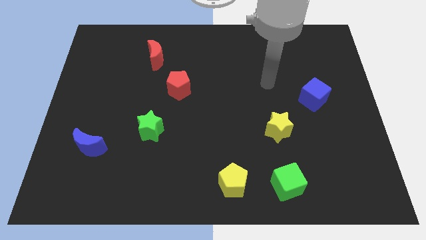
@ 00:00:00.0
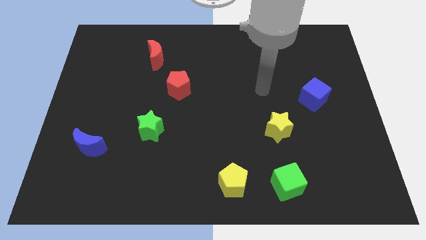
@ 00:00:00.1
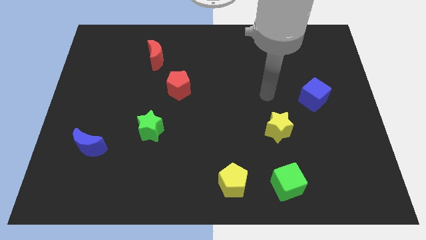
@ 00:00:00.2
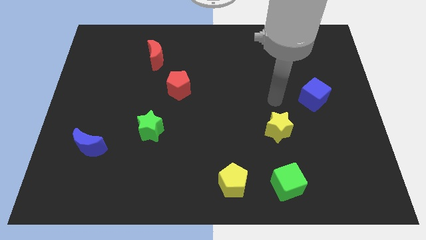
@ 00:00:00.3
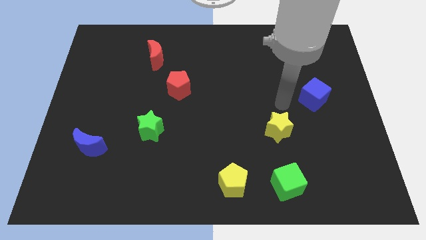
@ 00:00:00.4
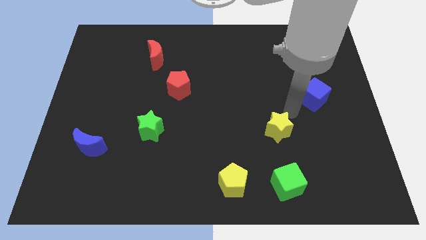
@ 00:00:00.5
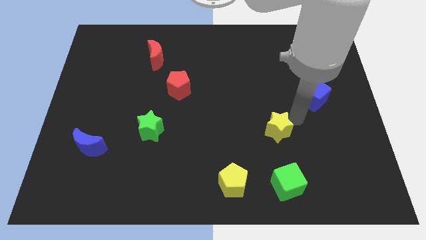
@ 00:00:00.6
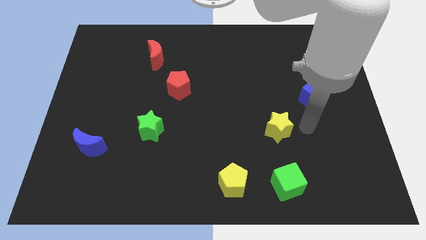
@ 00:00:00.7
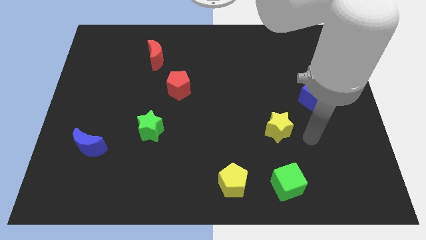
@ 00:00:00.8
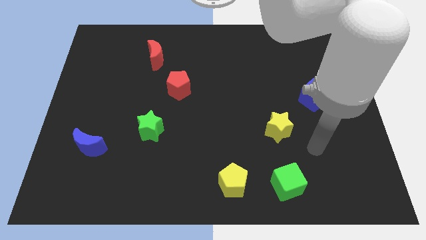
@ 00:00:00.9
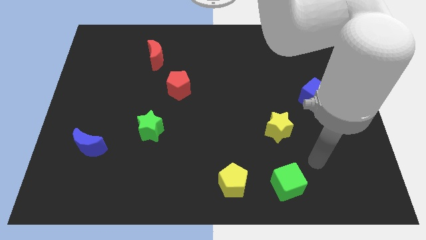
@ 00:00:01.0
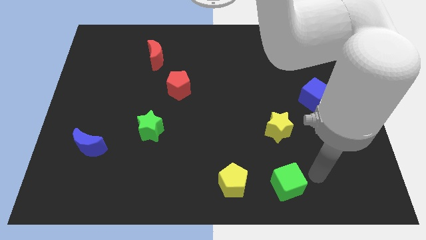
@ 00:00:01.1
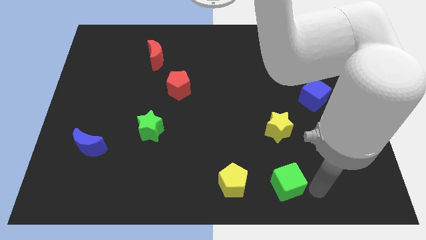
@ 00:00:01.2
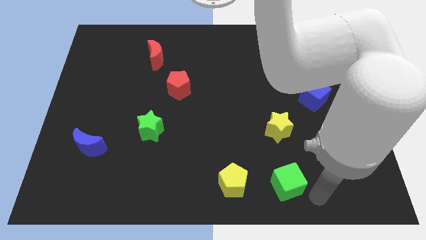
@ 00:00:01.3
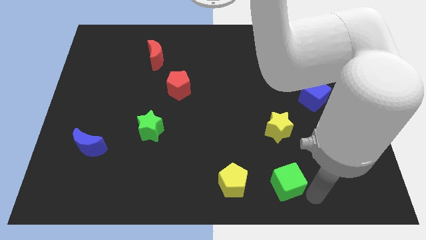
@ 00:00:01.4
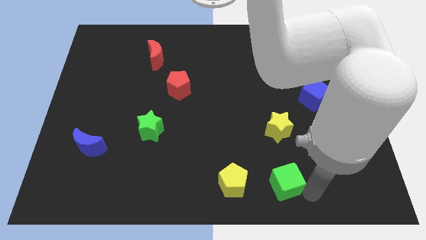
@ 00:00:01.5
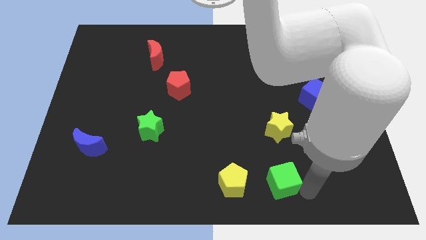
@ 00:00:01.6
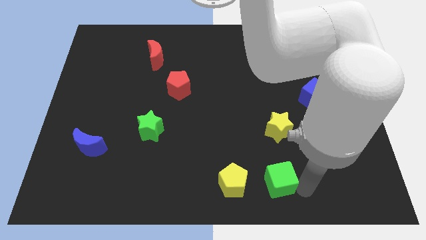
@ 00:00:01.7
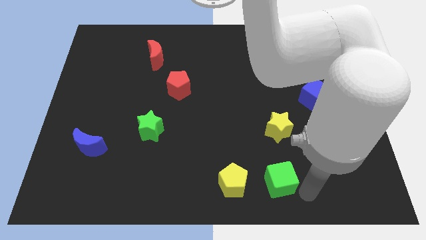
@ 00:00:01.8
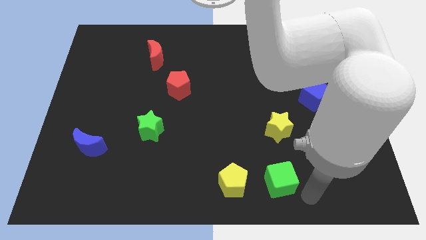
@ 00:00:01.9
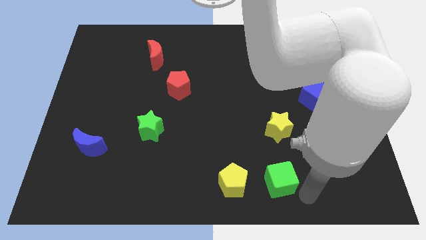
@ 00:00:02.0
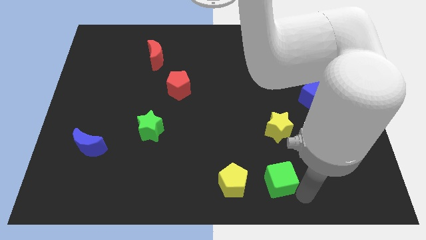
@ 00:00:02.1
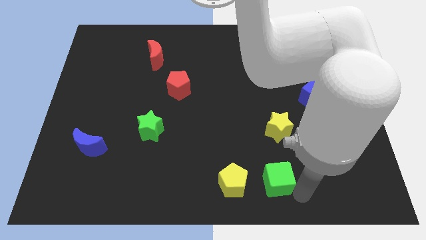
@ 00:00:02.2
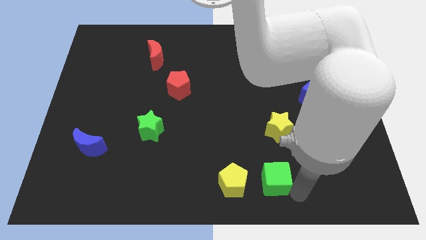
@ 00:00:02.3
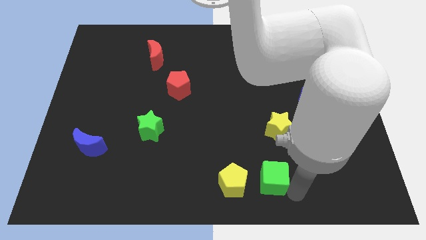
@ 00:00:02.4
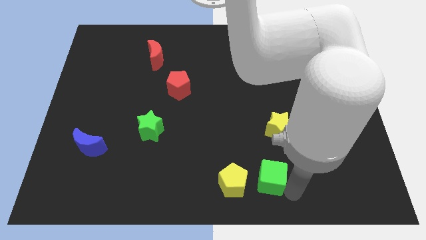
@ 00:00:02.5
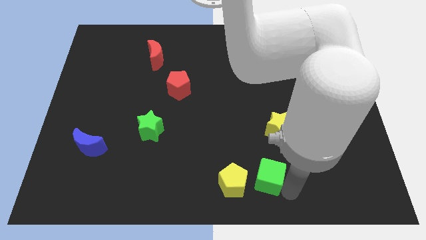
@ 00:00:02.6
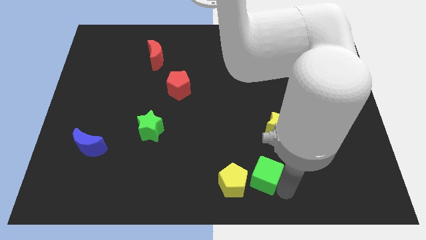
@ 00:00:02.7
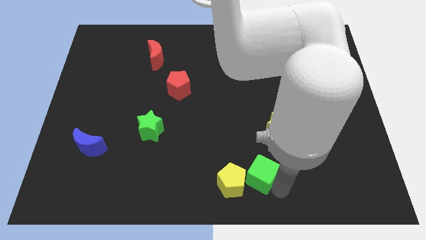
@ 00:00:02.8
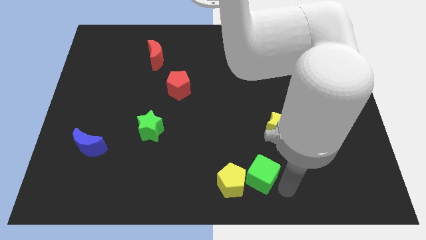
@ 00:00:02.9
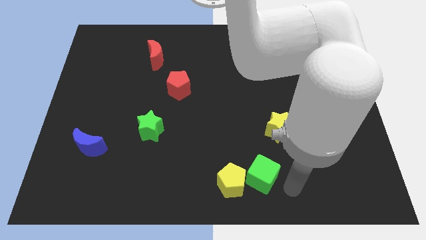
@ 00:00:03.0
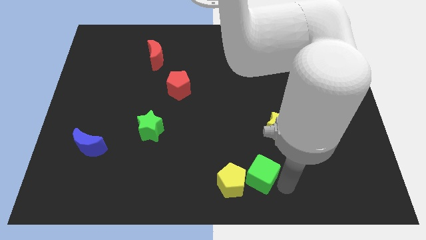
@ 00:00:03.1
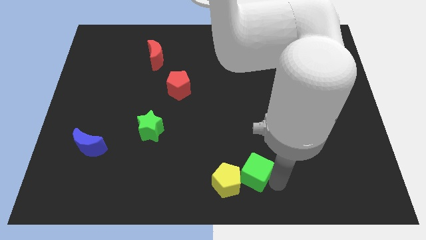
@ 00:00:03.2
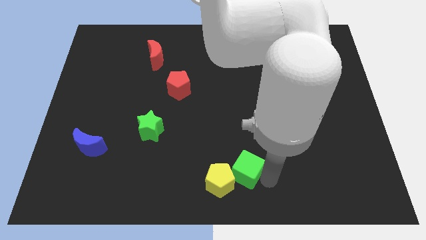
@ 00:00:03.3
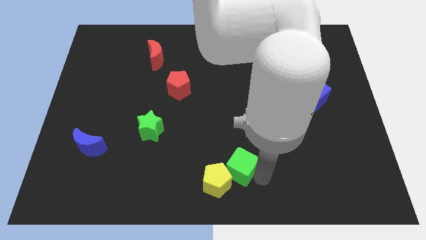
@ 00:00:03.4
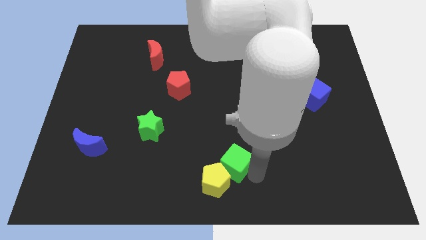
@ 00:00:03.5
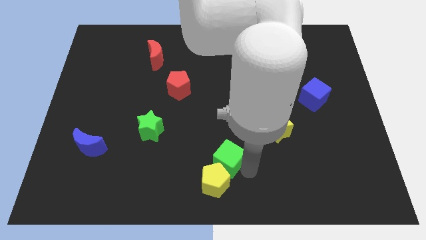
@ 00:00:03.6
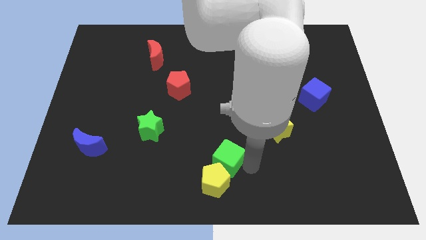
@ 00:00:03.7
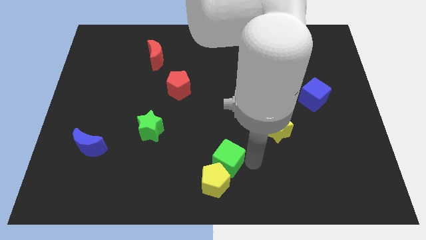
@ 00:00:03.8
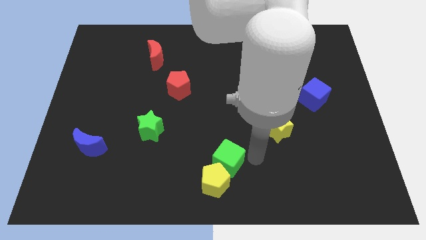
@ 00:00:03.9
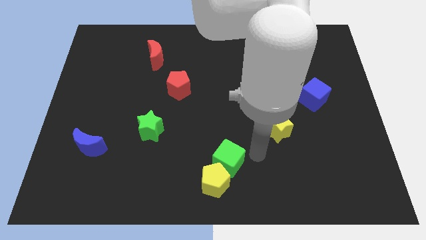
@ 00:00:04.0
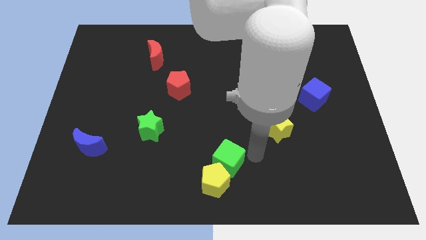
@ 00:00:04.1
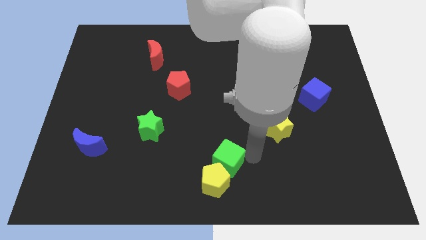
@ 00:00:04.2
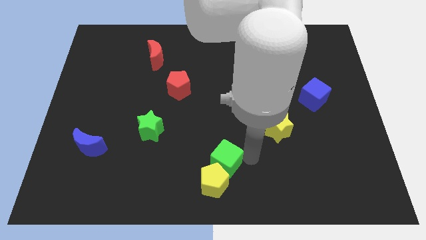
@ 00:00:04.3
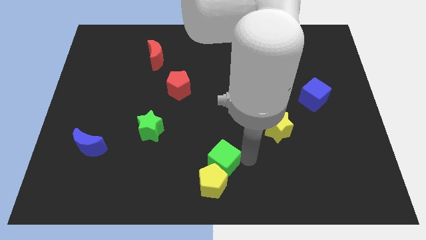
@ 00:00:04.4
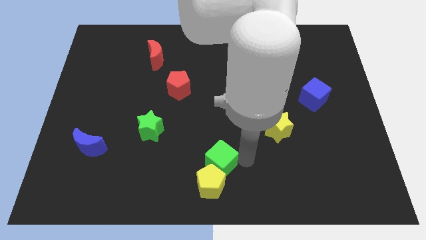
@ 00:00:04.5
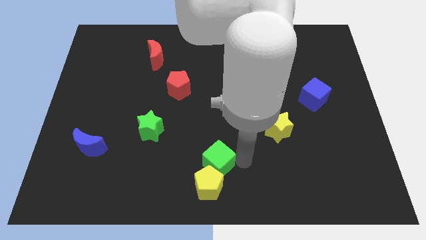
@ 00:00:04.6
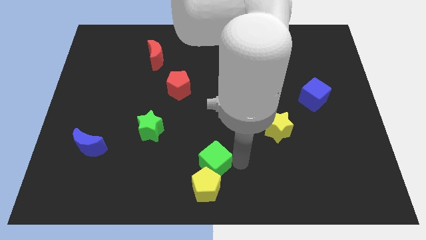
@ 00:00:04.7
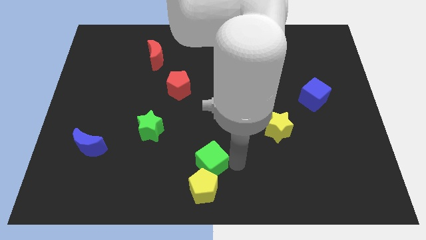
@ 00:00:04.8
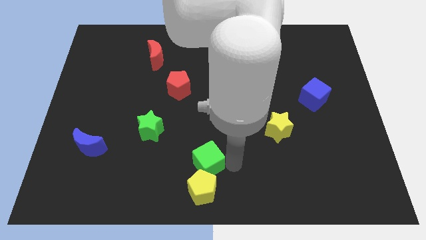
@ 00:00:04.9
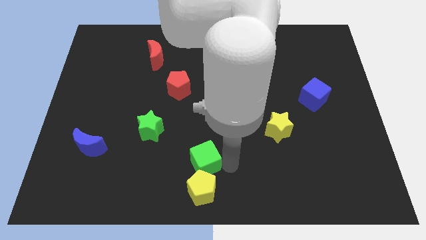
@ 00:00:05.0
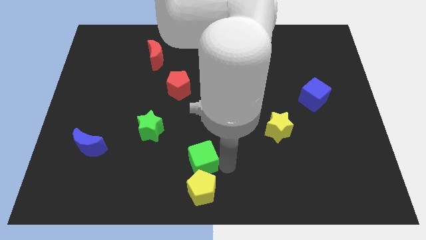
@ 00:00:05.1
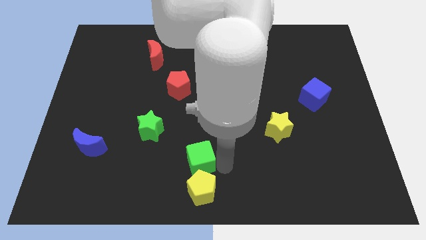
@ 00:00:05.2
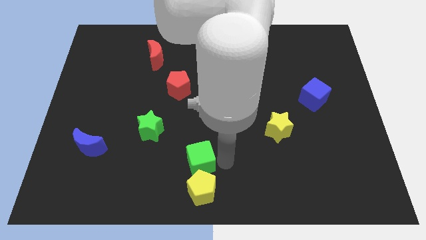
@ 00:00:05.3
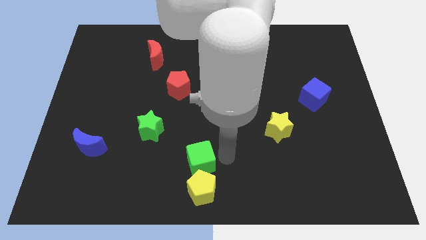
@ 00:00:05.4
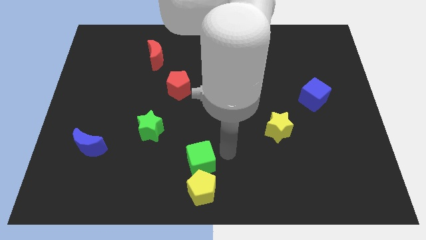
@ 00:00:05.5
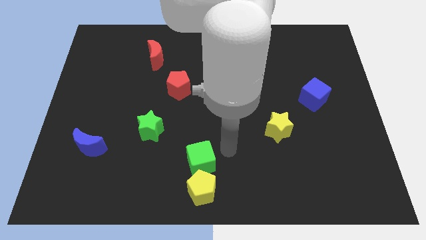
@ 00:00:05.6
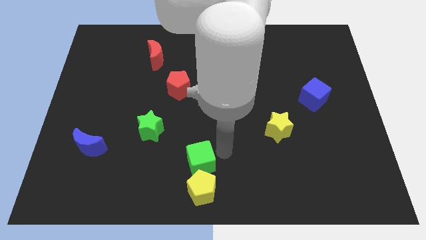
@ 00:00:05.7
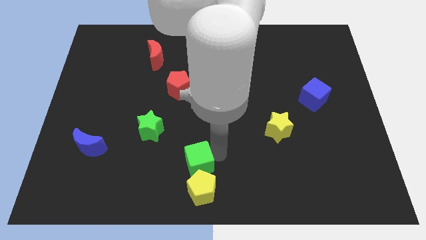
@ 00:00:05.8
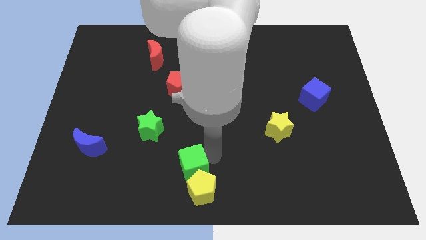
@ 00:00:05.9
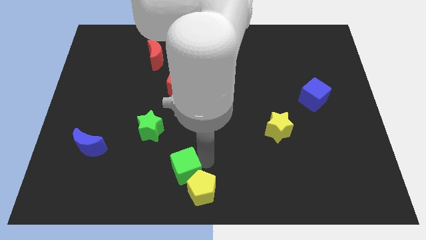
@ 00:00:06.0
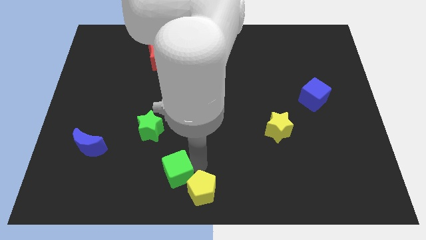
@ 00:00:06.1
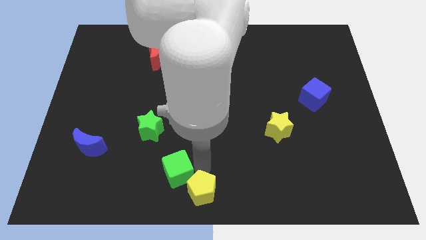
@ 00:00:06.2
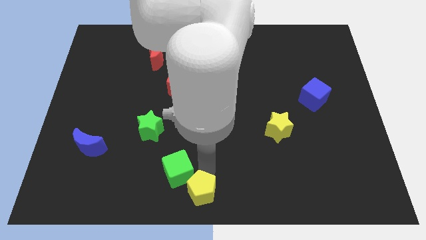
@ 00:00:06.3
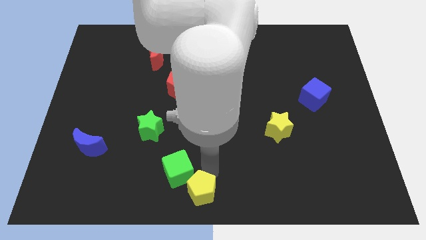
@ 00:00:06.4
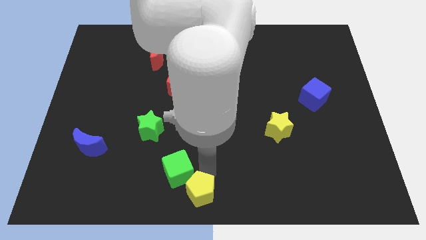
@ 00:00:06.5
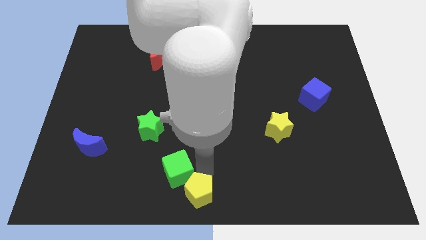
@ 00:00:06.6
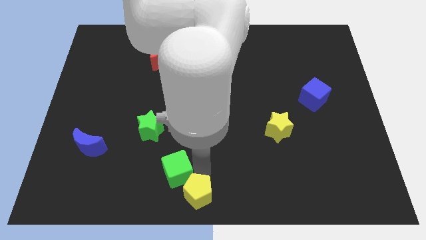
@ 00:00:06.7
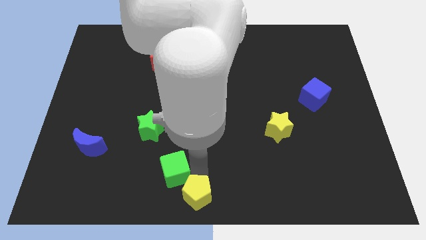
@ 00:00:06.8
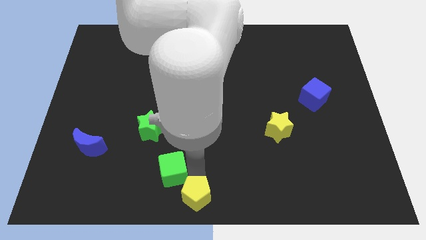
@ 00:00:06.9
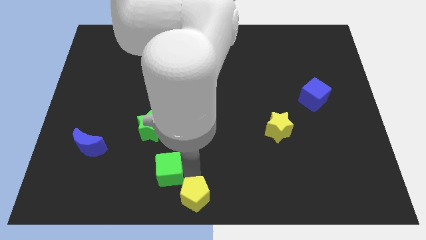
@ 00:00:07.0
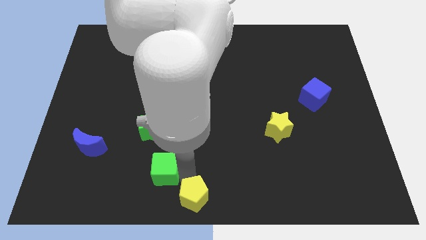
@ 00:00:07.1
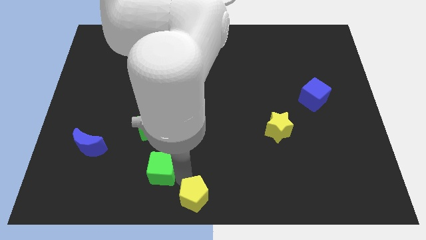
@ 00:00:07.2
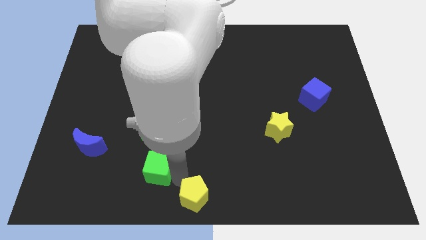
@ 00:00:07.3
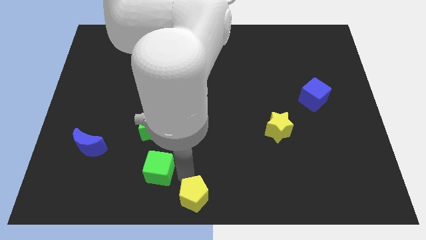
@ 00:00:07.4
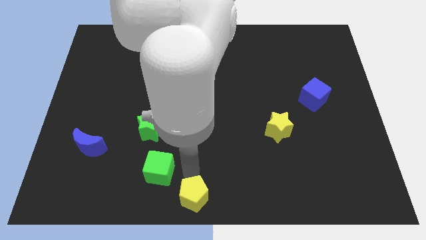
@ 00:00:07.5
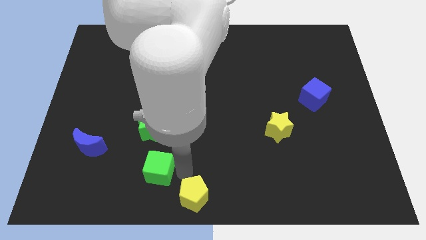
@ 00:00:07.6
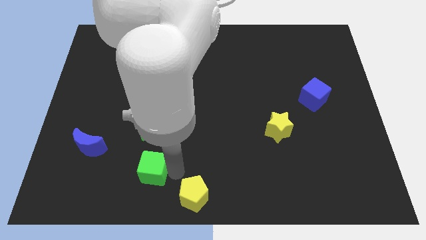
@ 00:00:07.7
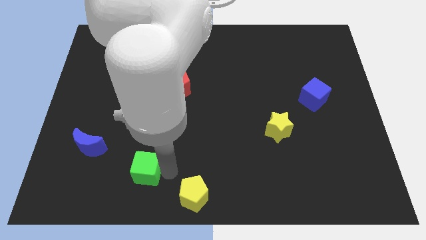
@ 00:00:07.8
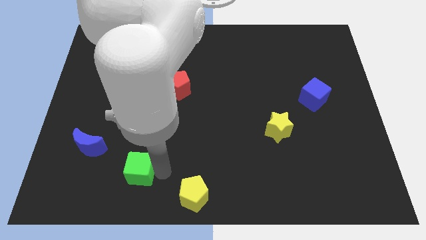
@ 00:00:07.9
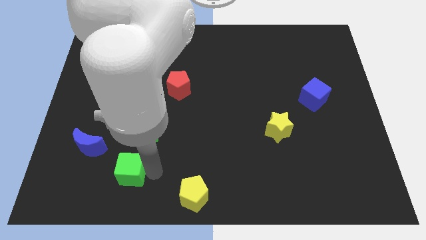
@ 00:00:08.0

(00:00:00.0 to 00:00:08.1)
slide the green cube to the bottom right of the blue moon
